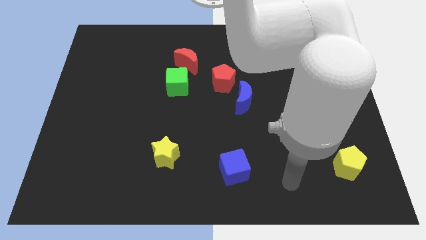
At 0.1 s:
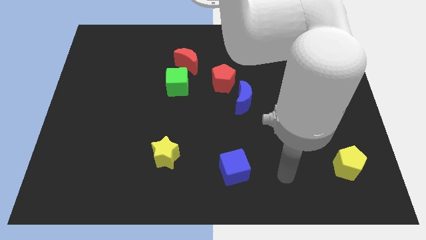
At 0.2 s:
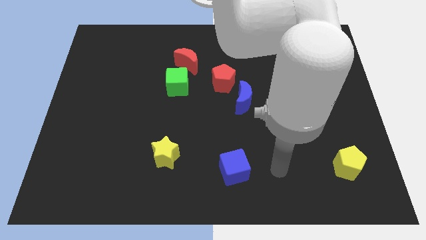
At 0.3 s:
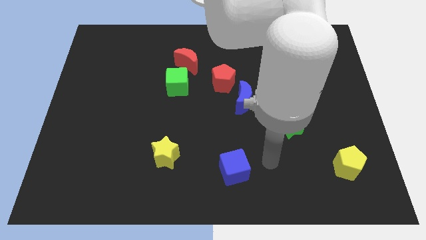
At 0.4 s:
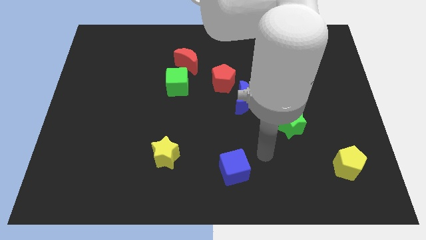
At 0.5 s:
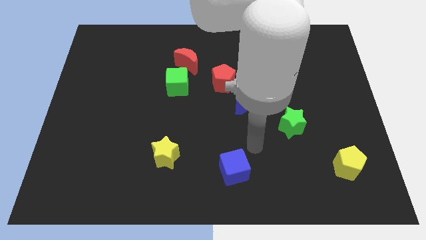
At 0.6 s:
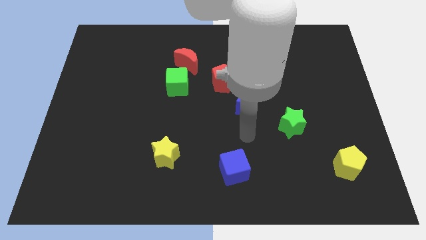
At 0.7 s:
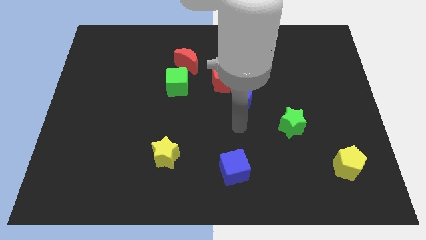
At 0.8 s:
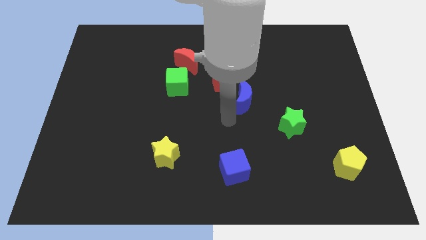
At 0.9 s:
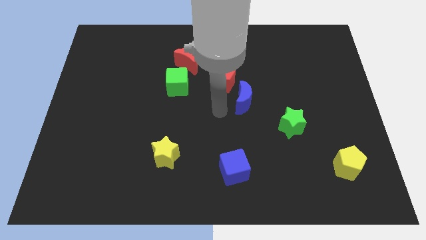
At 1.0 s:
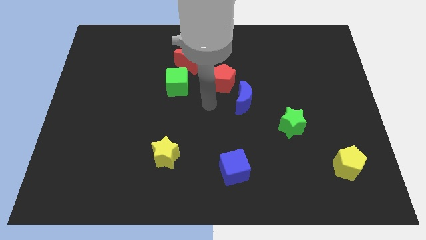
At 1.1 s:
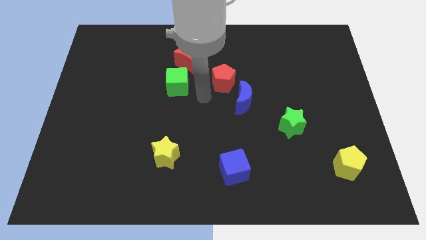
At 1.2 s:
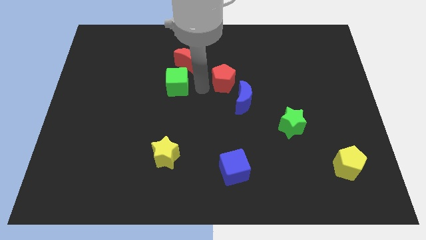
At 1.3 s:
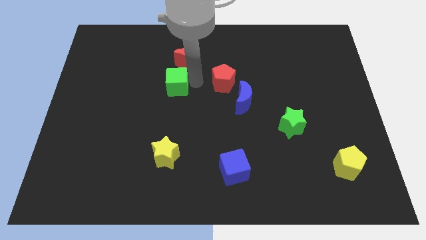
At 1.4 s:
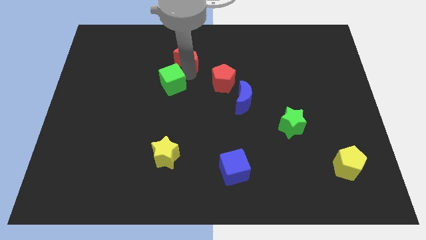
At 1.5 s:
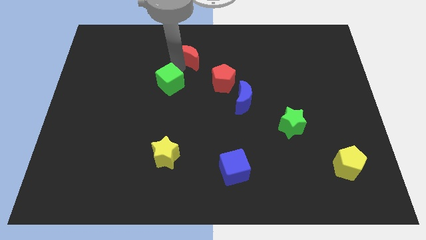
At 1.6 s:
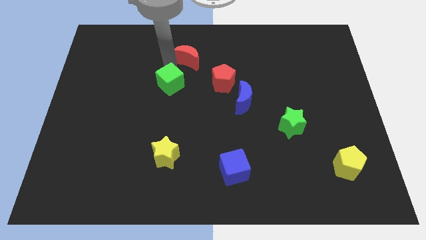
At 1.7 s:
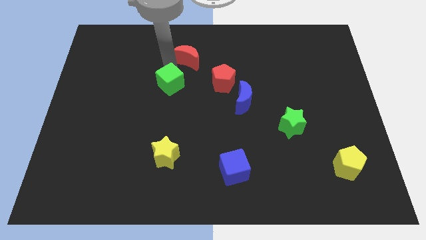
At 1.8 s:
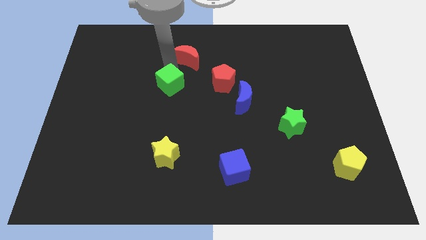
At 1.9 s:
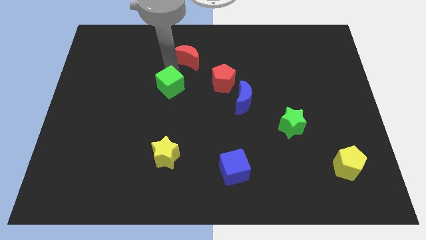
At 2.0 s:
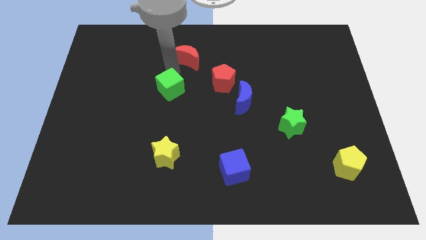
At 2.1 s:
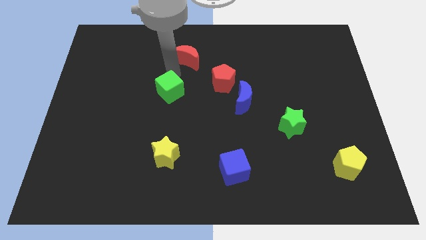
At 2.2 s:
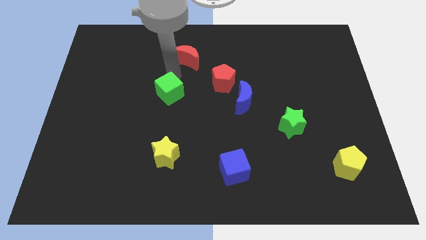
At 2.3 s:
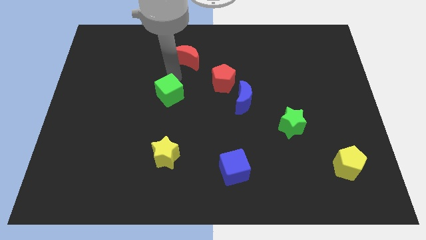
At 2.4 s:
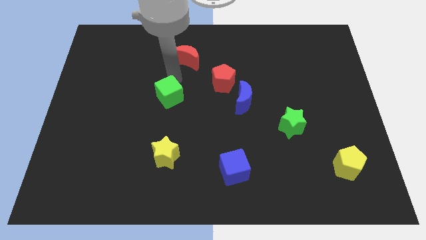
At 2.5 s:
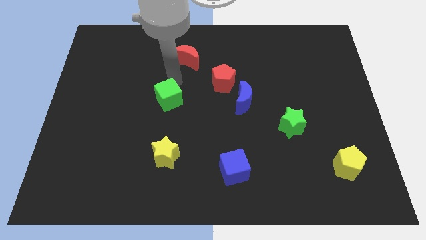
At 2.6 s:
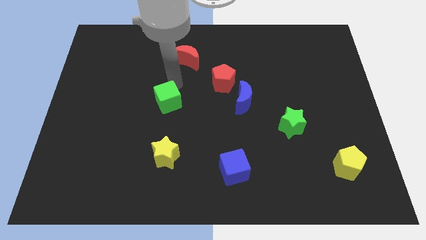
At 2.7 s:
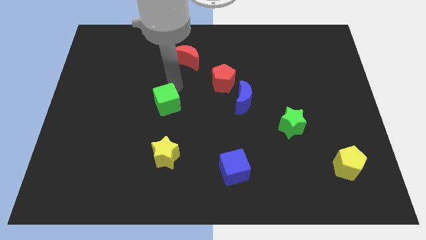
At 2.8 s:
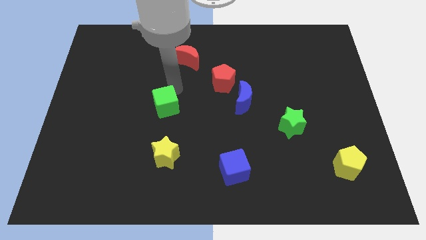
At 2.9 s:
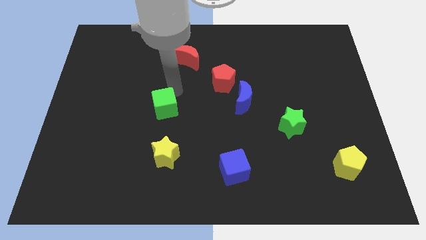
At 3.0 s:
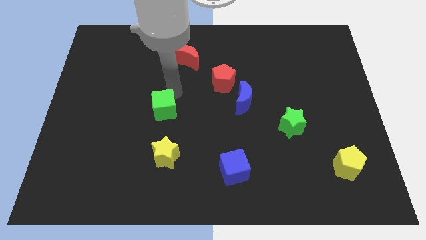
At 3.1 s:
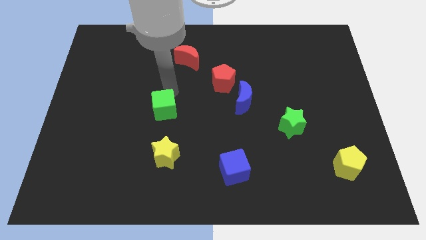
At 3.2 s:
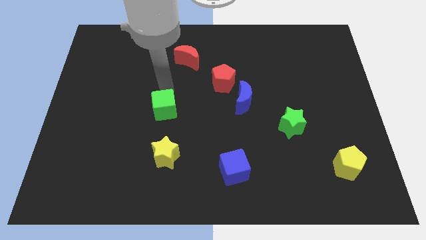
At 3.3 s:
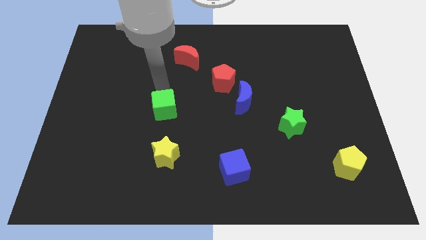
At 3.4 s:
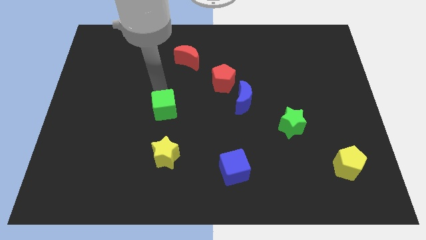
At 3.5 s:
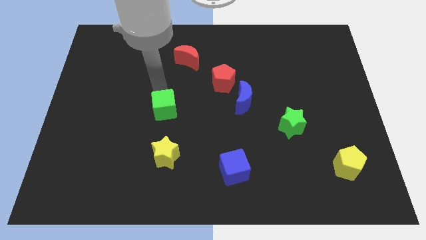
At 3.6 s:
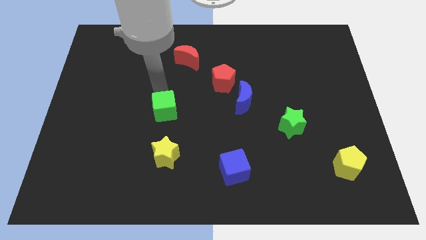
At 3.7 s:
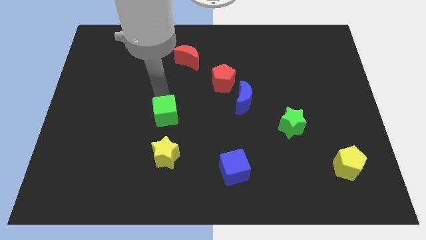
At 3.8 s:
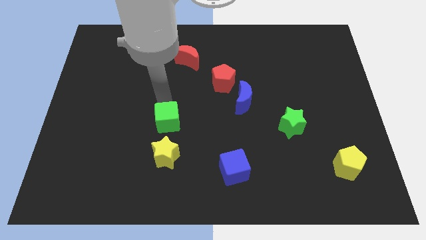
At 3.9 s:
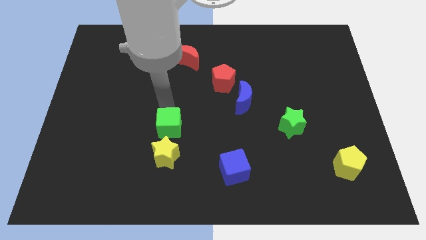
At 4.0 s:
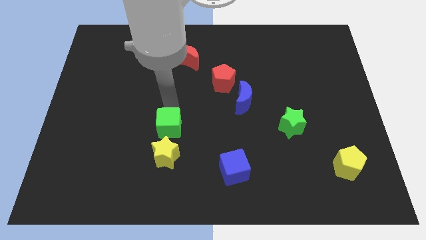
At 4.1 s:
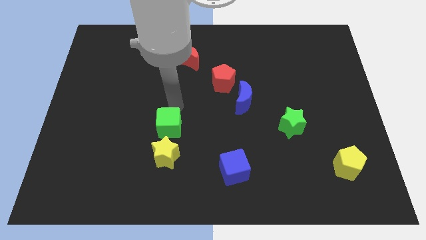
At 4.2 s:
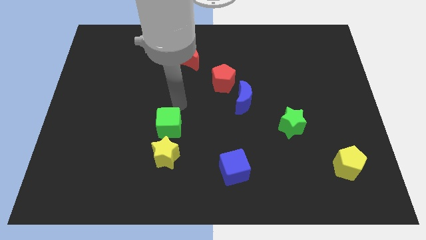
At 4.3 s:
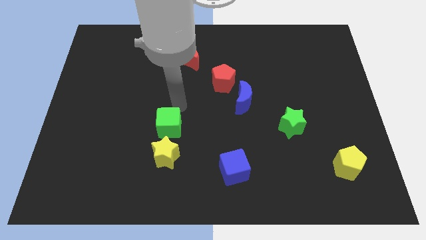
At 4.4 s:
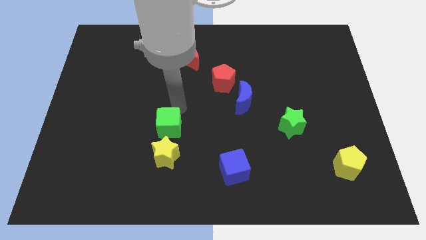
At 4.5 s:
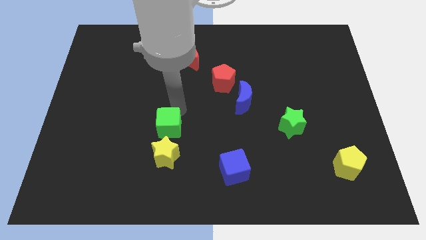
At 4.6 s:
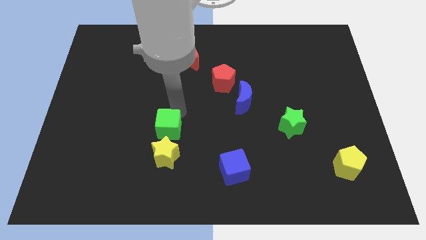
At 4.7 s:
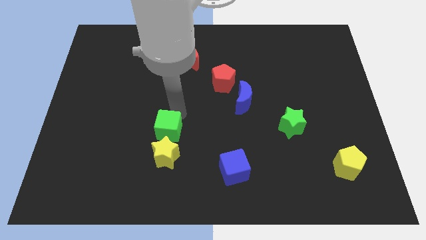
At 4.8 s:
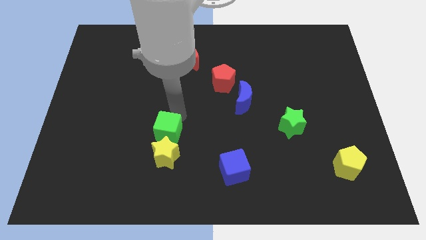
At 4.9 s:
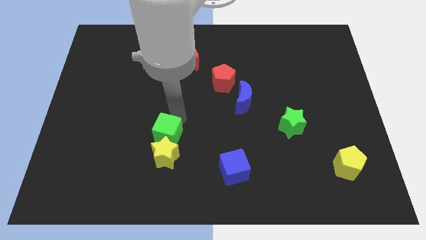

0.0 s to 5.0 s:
move the green cube towards the yellow star

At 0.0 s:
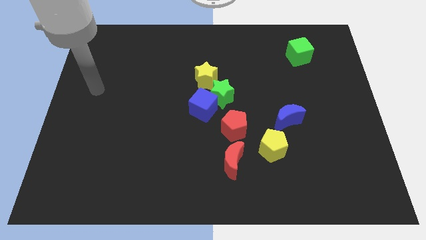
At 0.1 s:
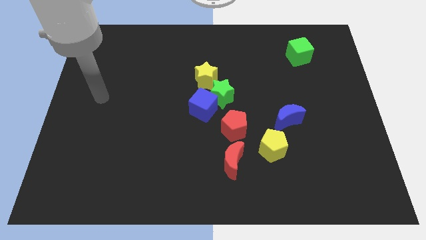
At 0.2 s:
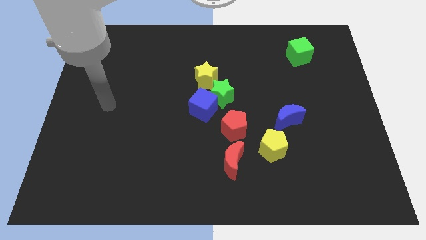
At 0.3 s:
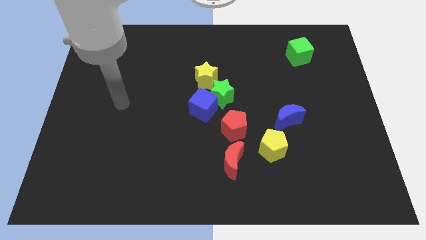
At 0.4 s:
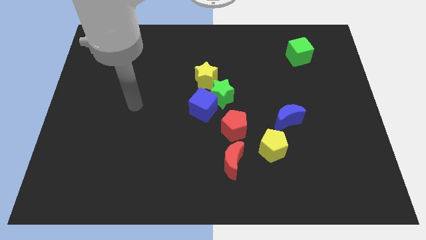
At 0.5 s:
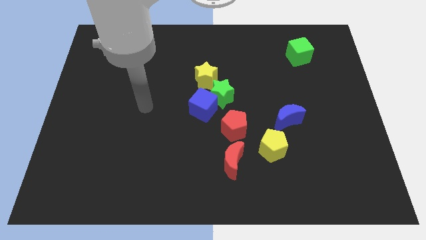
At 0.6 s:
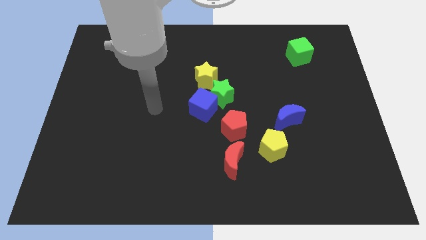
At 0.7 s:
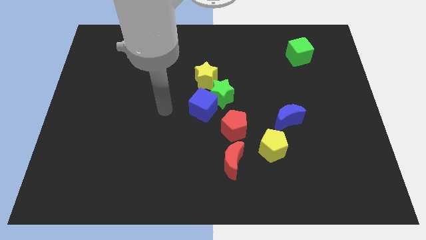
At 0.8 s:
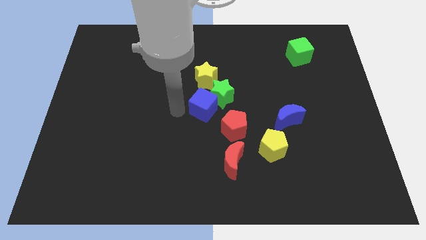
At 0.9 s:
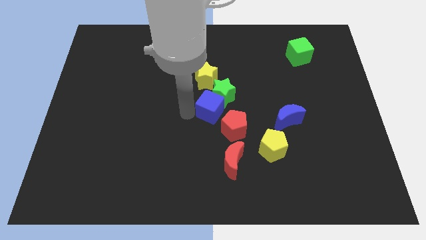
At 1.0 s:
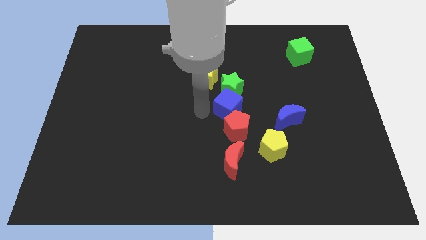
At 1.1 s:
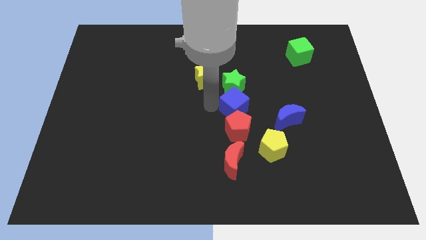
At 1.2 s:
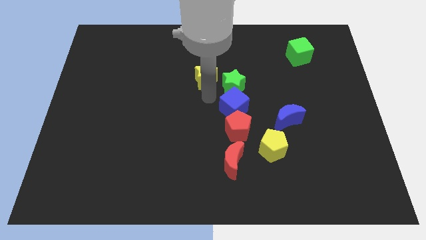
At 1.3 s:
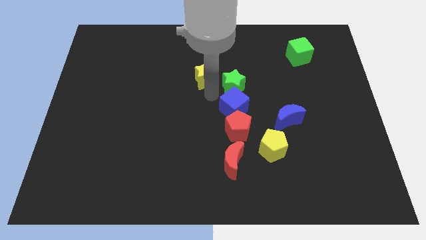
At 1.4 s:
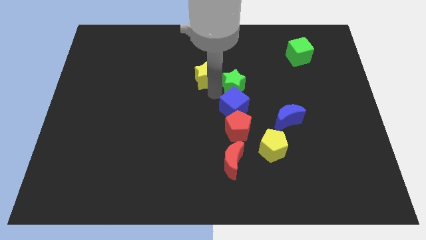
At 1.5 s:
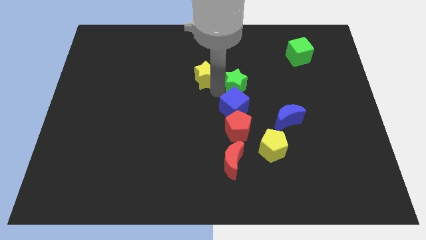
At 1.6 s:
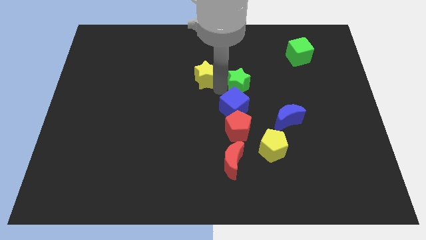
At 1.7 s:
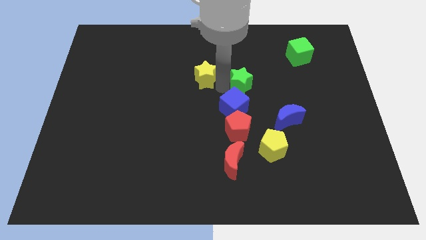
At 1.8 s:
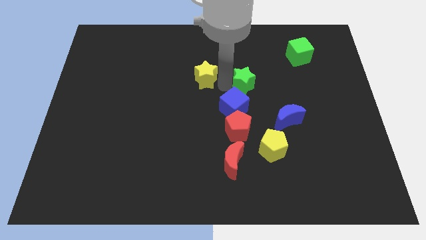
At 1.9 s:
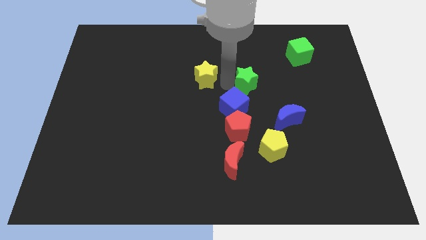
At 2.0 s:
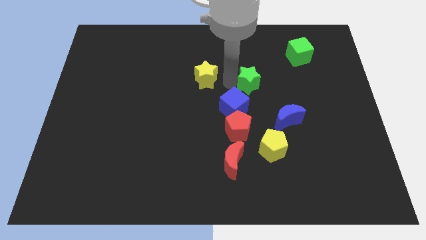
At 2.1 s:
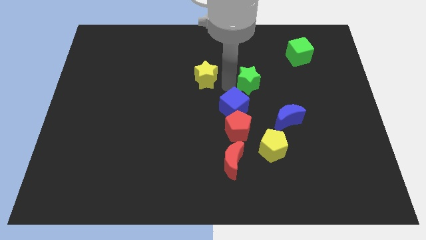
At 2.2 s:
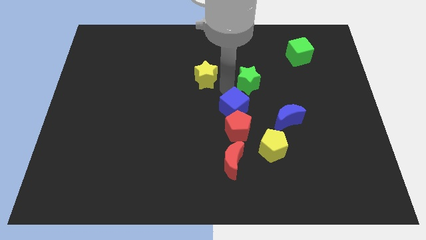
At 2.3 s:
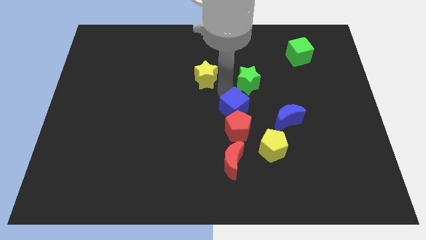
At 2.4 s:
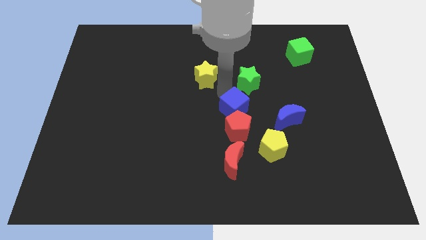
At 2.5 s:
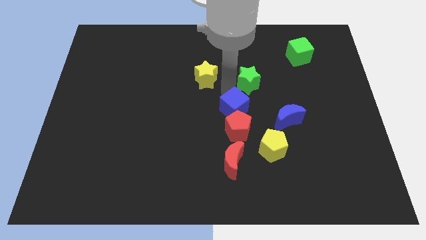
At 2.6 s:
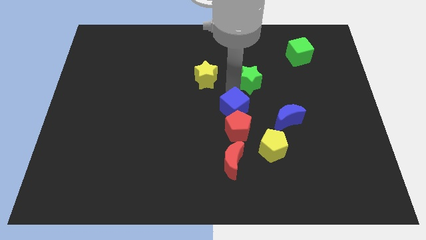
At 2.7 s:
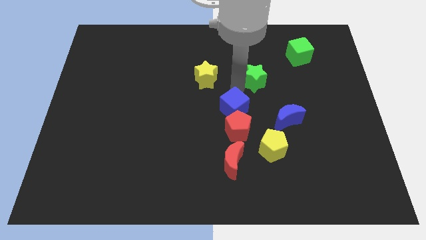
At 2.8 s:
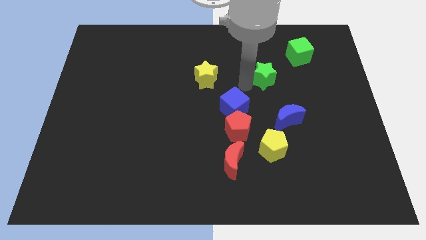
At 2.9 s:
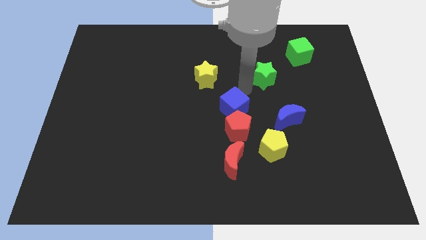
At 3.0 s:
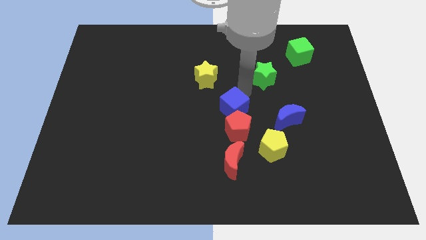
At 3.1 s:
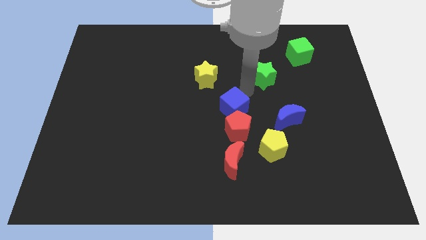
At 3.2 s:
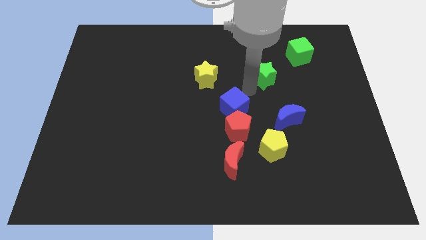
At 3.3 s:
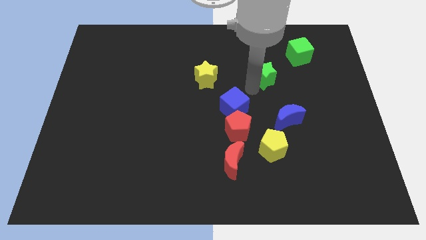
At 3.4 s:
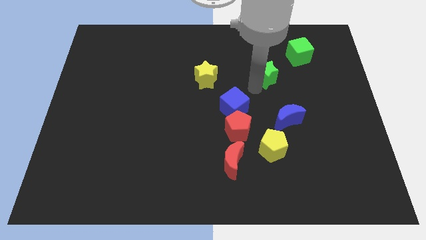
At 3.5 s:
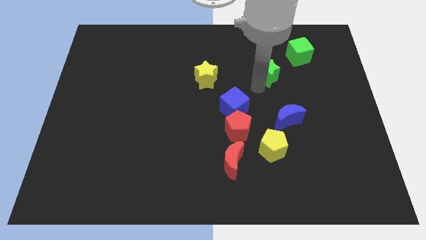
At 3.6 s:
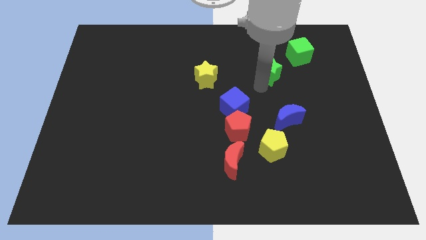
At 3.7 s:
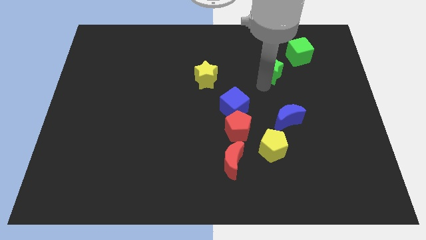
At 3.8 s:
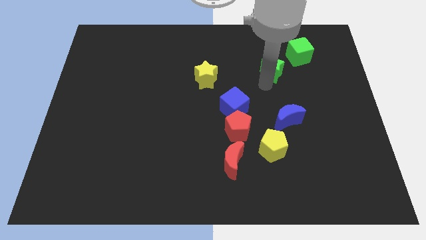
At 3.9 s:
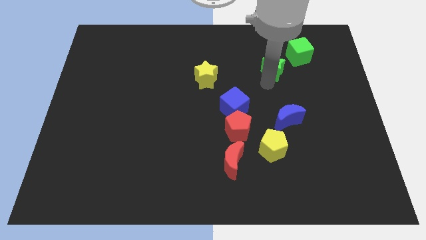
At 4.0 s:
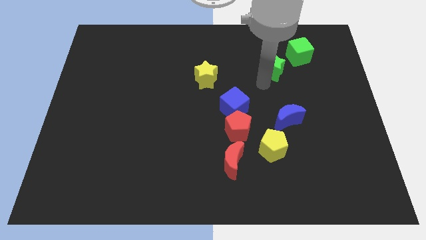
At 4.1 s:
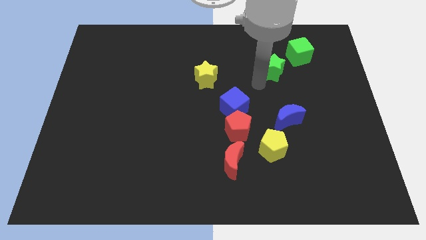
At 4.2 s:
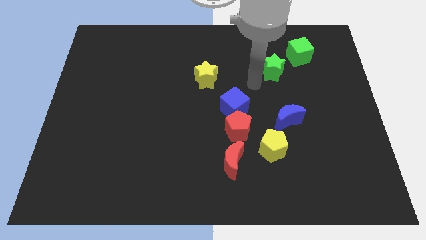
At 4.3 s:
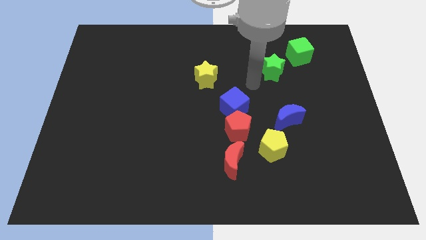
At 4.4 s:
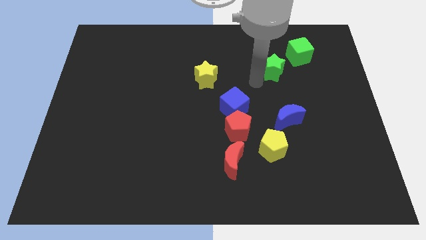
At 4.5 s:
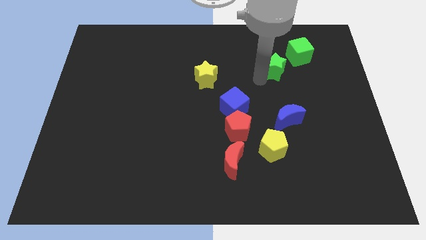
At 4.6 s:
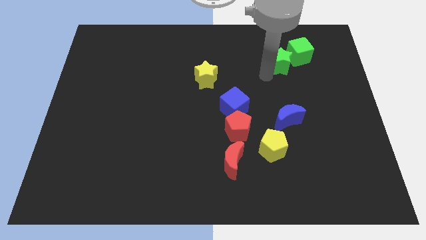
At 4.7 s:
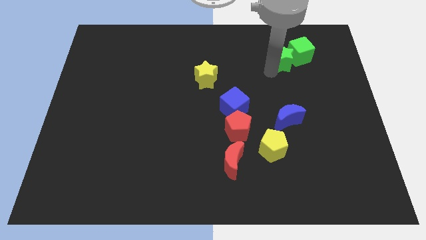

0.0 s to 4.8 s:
put the green star close to the green cube
